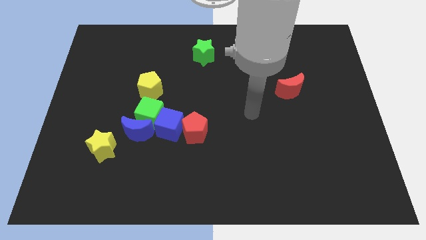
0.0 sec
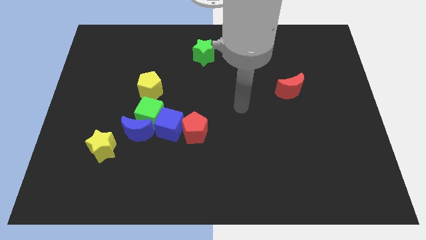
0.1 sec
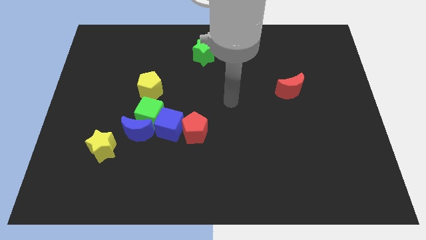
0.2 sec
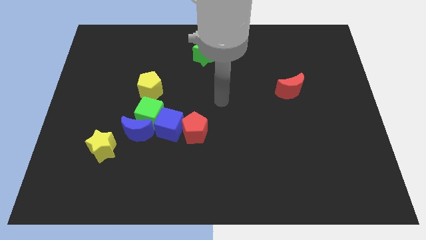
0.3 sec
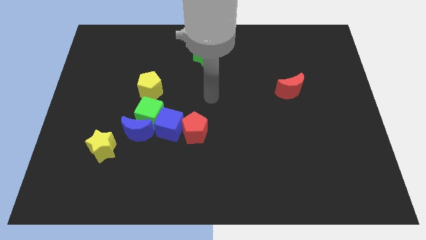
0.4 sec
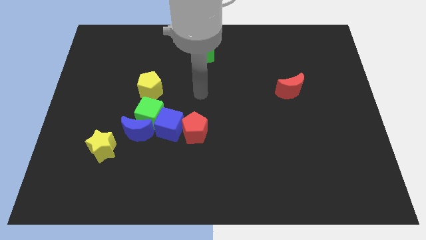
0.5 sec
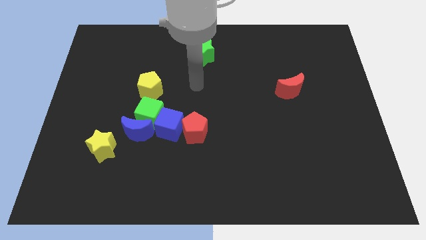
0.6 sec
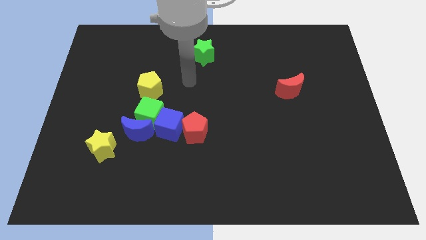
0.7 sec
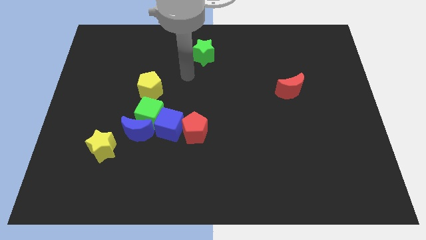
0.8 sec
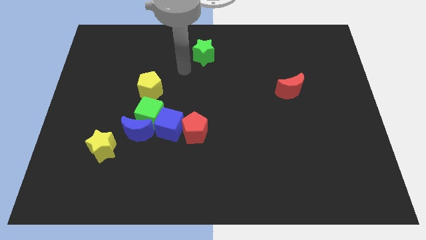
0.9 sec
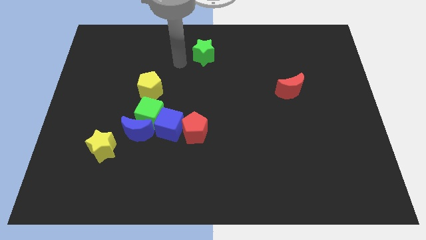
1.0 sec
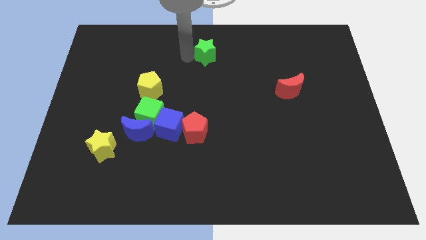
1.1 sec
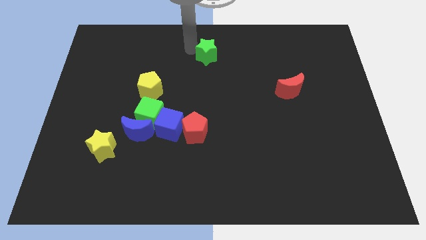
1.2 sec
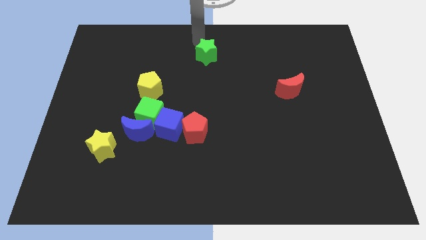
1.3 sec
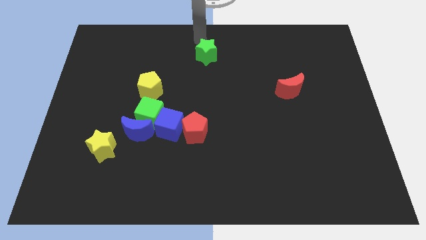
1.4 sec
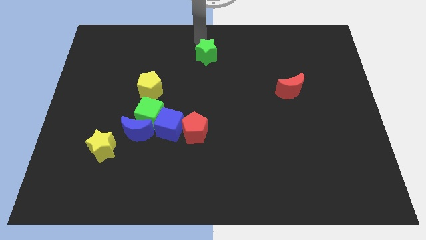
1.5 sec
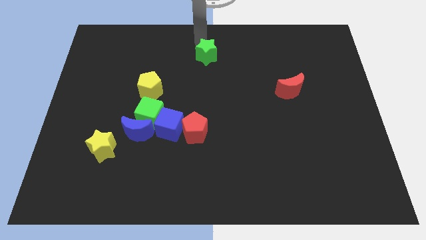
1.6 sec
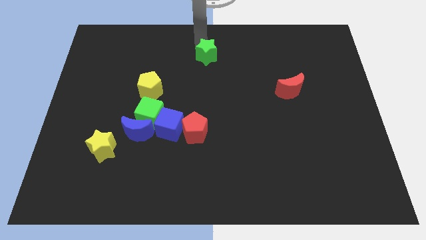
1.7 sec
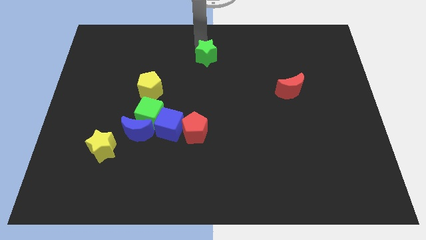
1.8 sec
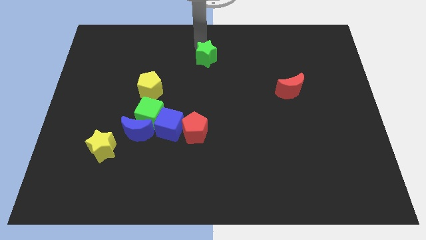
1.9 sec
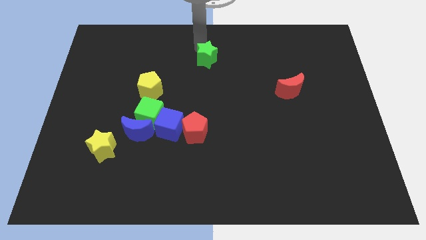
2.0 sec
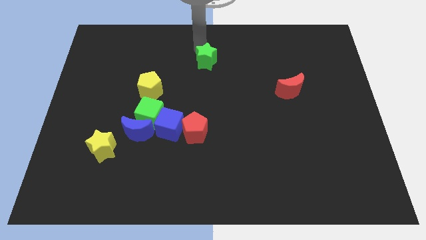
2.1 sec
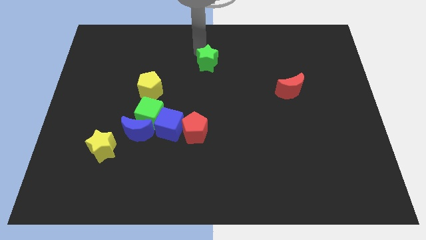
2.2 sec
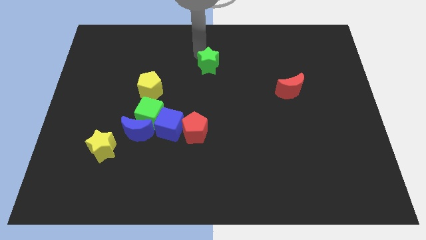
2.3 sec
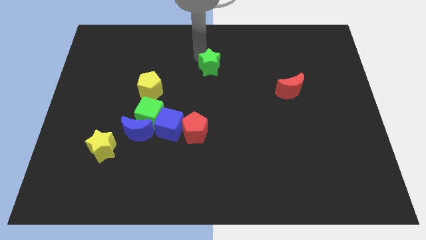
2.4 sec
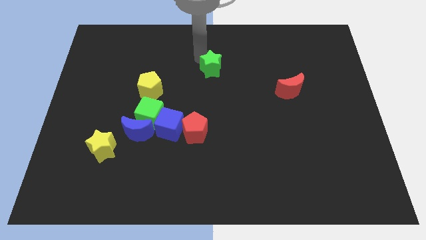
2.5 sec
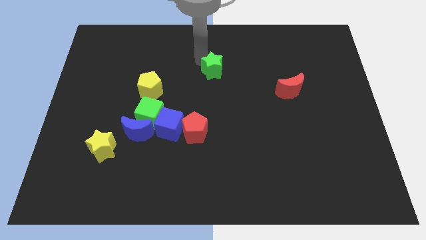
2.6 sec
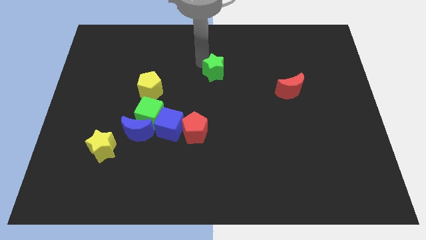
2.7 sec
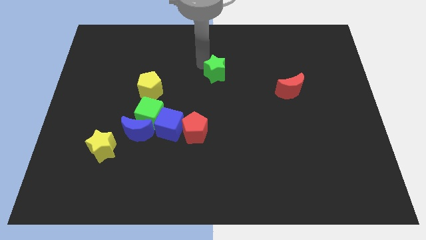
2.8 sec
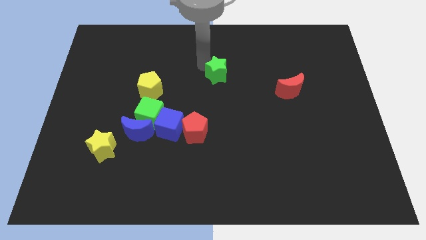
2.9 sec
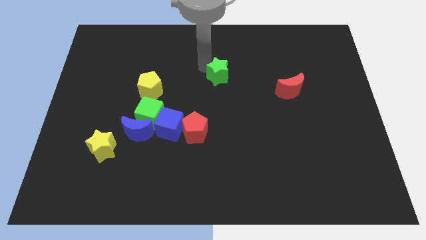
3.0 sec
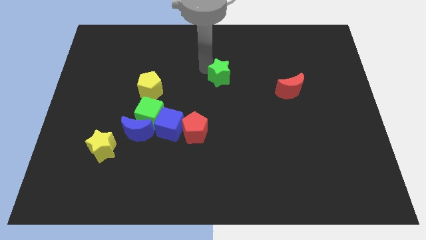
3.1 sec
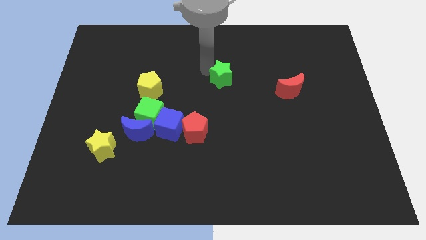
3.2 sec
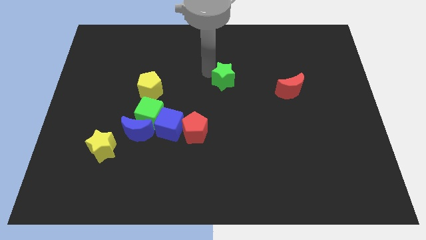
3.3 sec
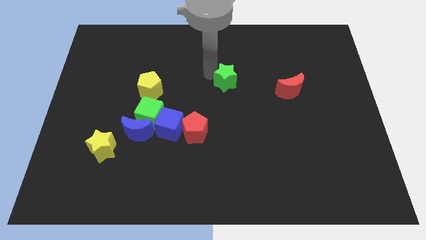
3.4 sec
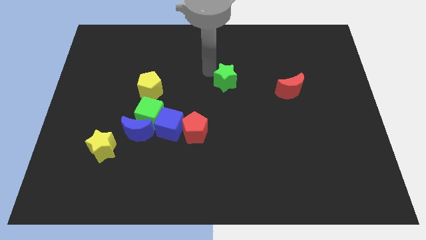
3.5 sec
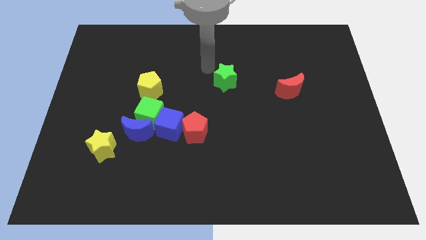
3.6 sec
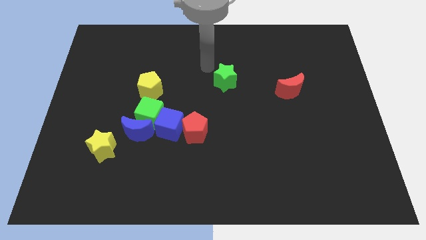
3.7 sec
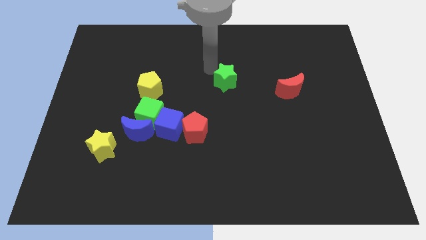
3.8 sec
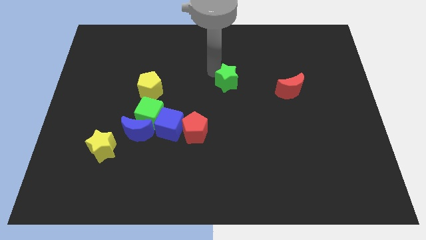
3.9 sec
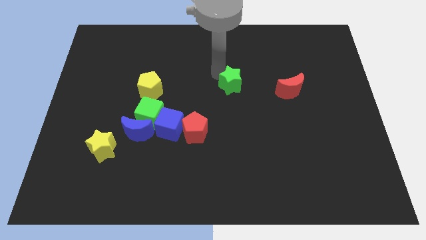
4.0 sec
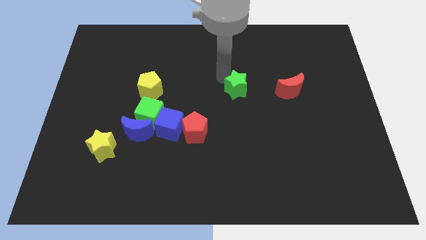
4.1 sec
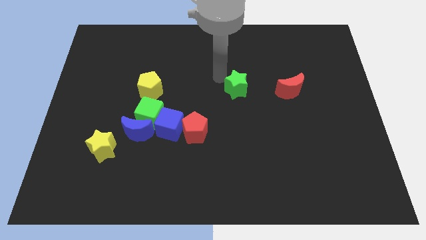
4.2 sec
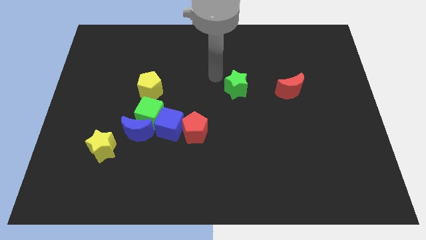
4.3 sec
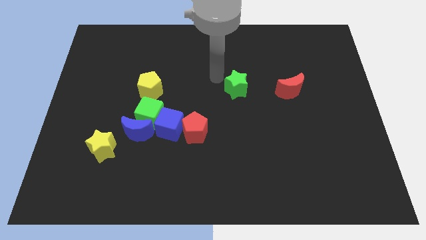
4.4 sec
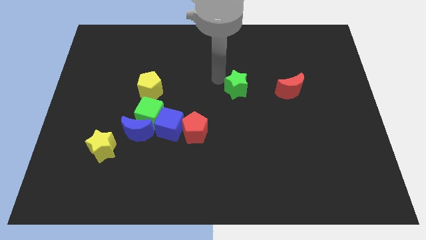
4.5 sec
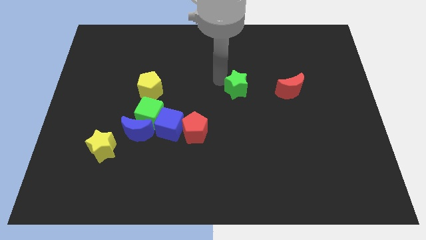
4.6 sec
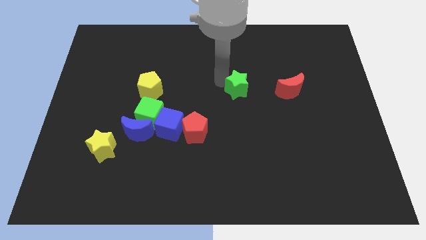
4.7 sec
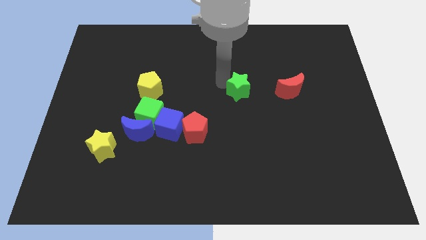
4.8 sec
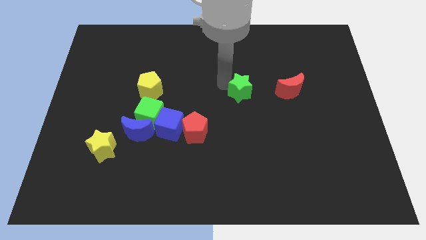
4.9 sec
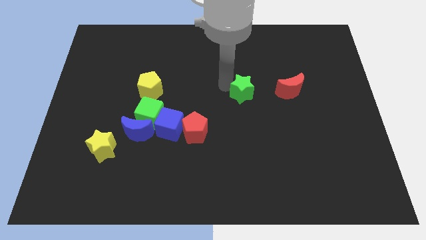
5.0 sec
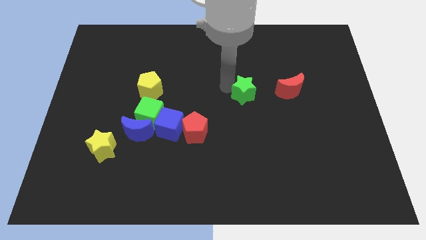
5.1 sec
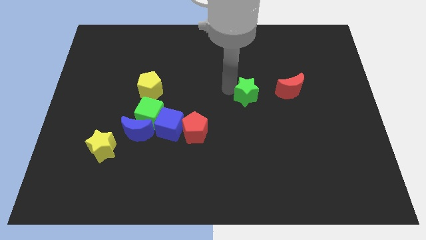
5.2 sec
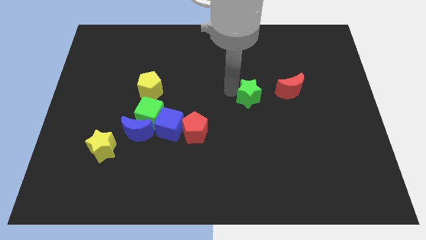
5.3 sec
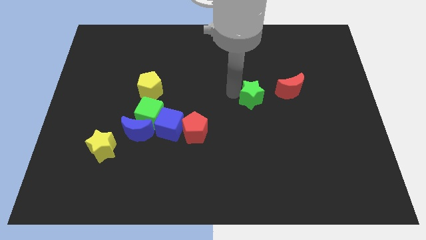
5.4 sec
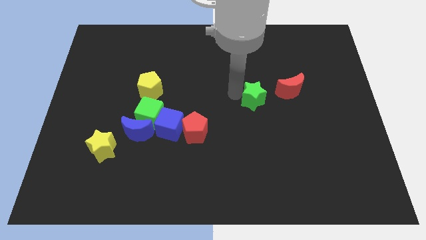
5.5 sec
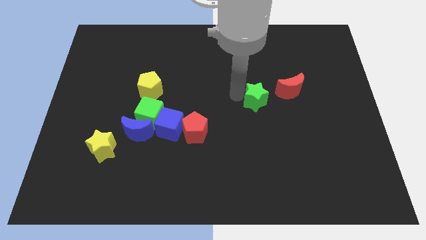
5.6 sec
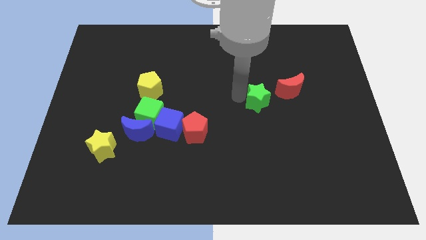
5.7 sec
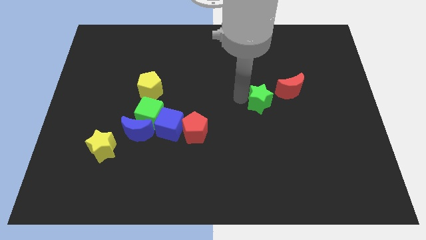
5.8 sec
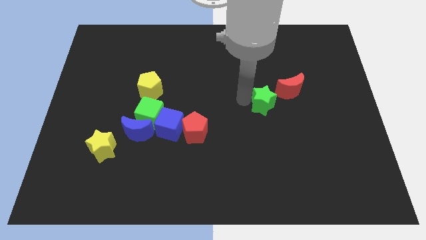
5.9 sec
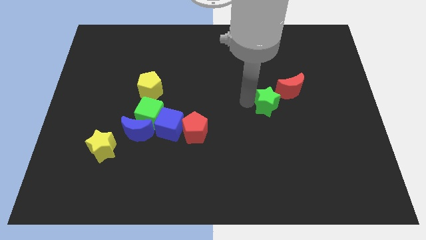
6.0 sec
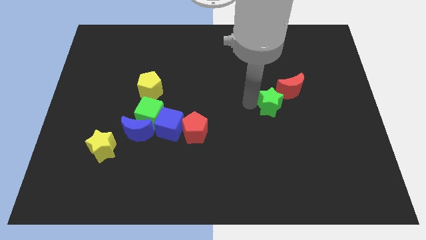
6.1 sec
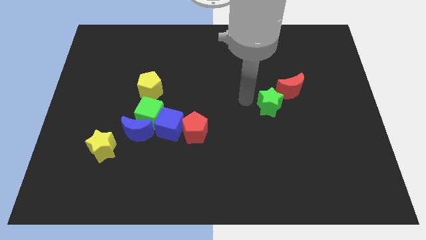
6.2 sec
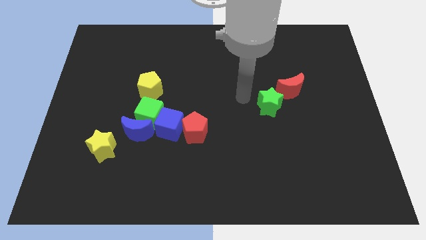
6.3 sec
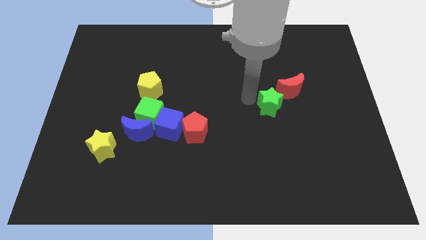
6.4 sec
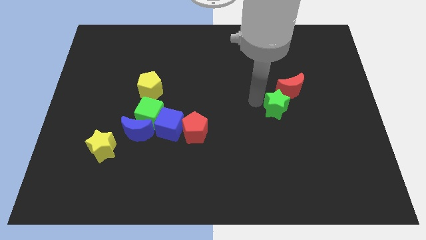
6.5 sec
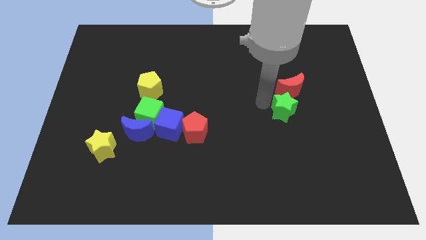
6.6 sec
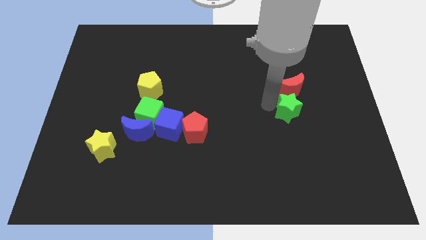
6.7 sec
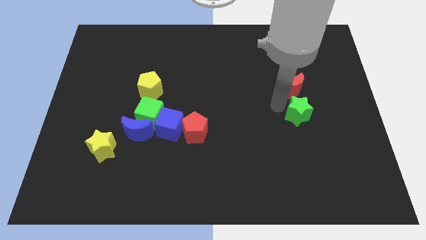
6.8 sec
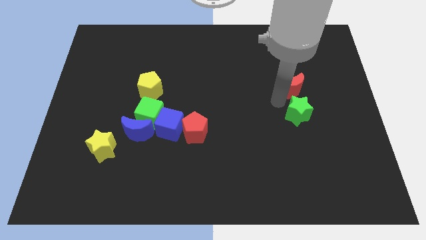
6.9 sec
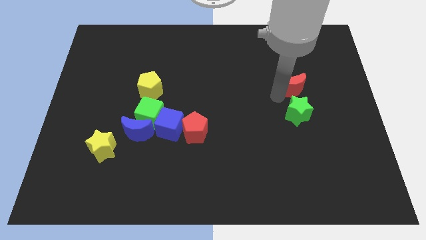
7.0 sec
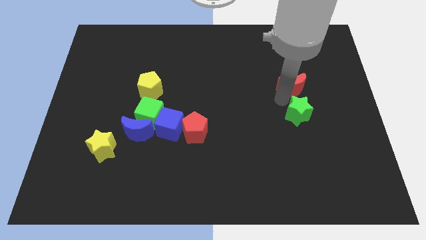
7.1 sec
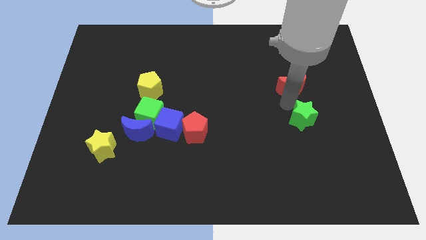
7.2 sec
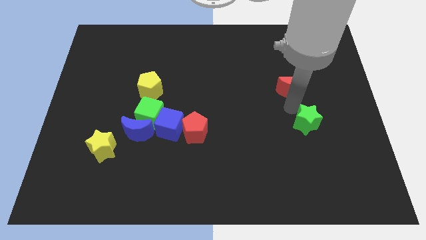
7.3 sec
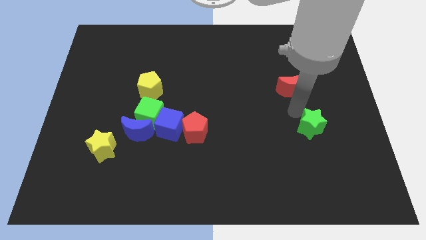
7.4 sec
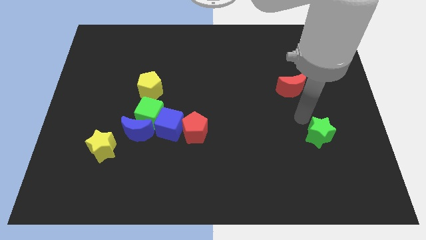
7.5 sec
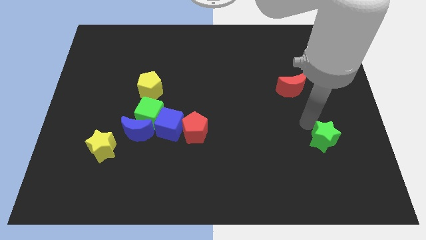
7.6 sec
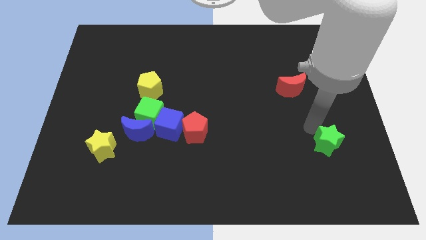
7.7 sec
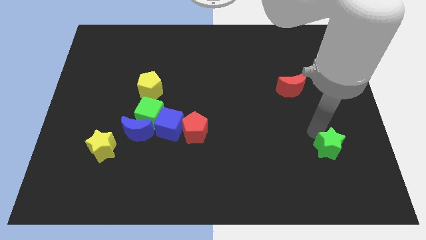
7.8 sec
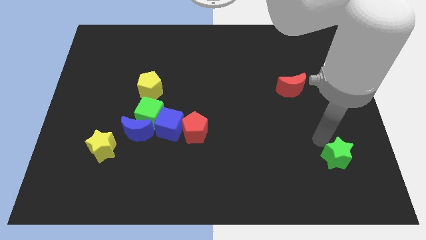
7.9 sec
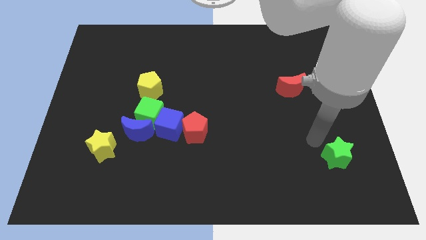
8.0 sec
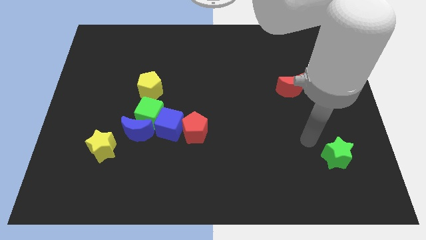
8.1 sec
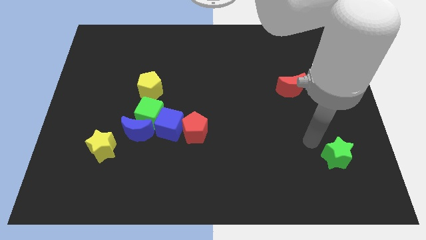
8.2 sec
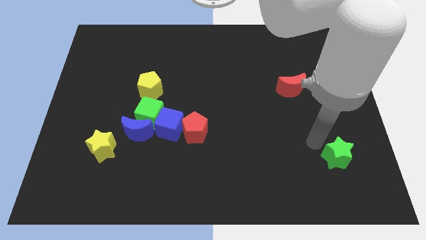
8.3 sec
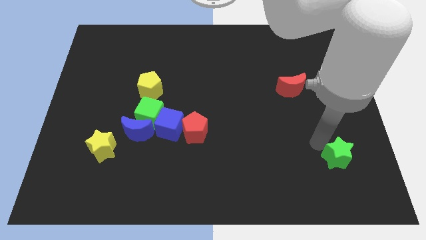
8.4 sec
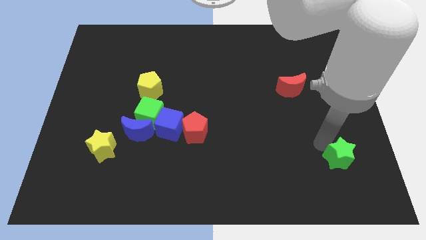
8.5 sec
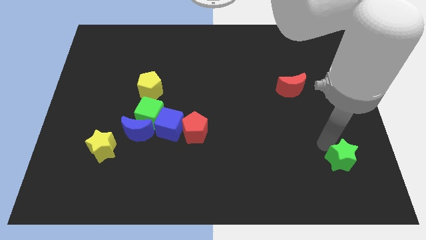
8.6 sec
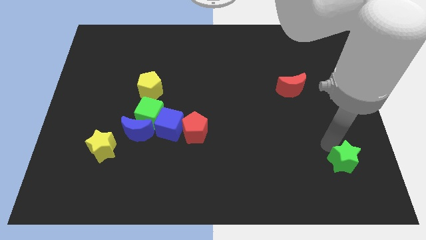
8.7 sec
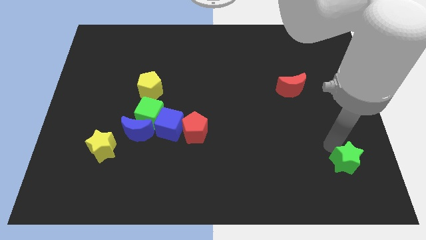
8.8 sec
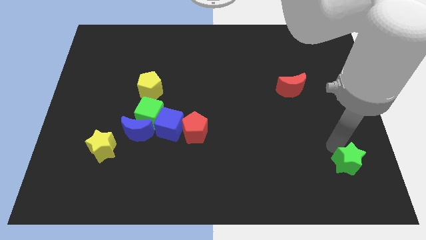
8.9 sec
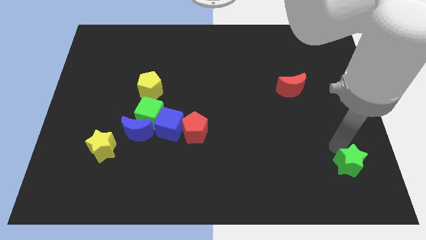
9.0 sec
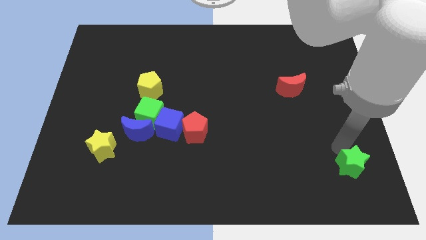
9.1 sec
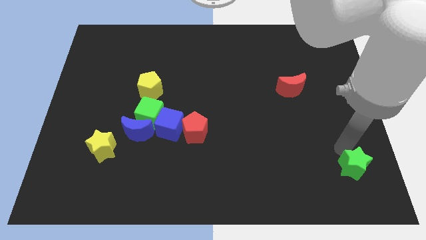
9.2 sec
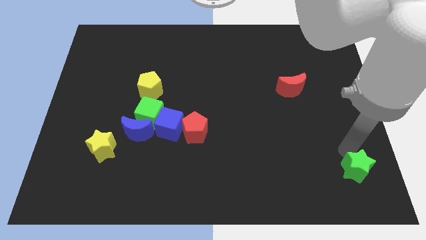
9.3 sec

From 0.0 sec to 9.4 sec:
slide the green star to the bottom right corner
